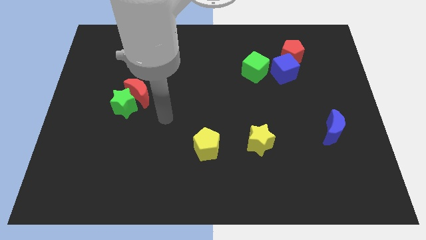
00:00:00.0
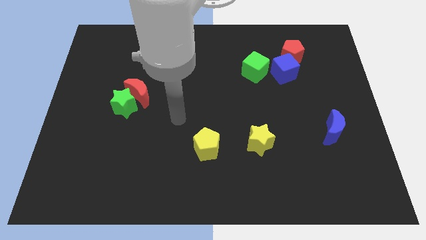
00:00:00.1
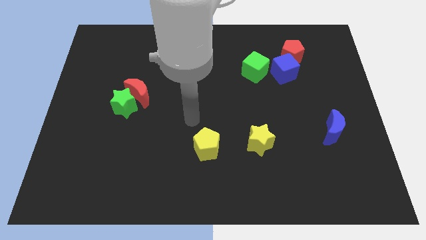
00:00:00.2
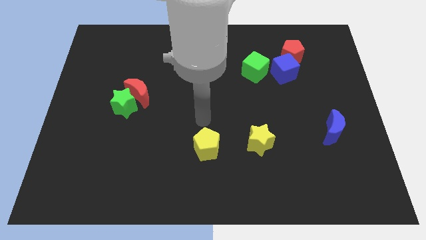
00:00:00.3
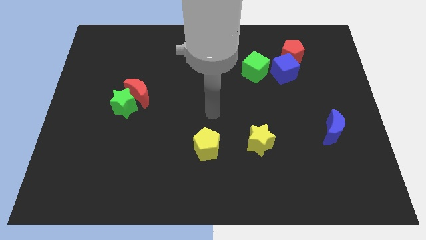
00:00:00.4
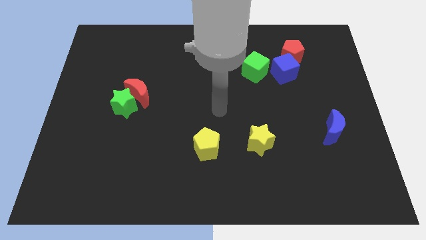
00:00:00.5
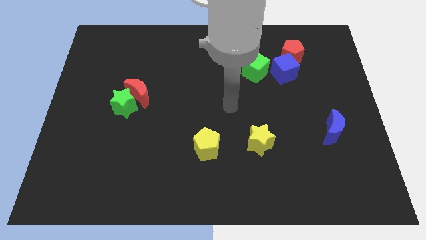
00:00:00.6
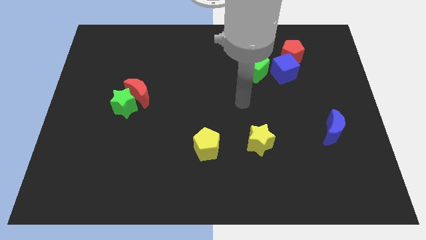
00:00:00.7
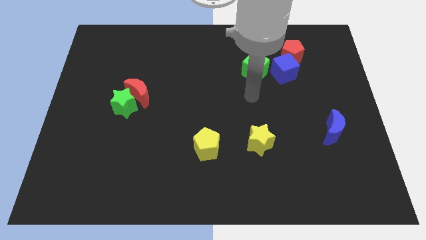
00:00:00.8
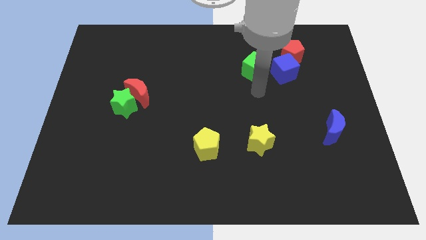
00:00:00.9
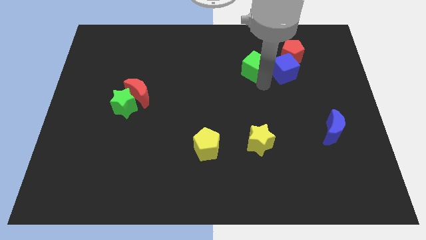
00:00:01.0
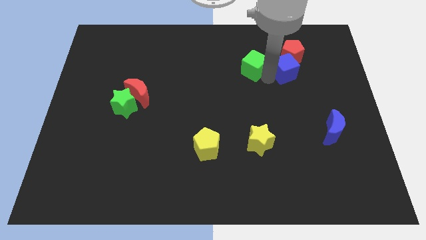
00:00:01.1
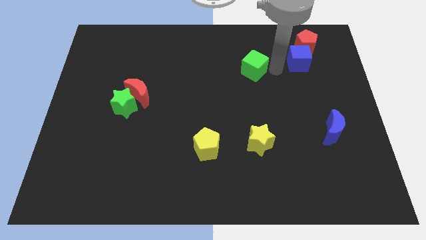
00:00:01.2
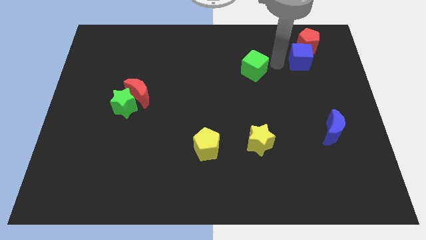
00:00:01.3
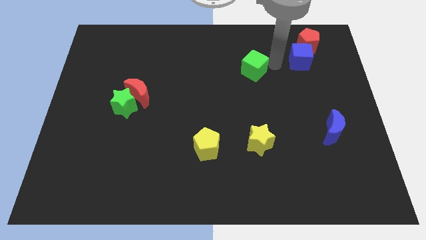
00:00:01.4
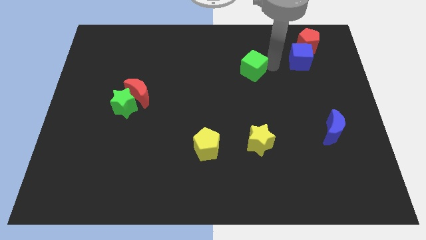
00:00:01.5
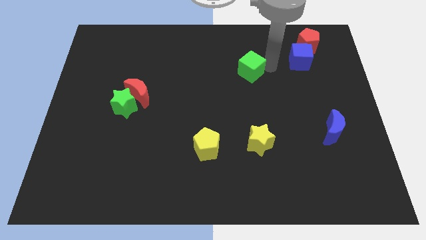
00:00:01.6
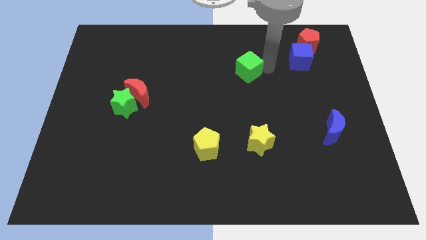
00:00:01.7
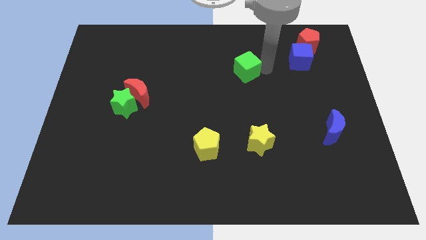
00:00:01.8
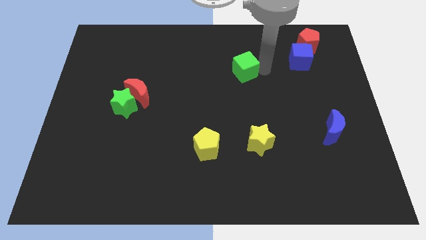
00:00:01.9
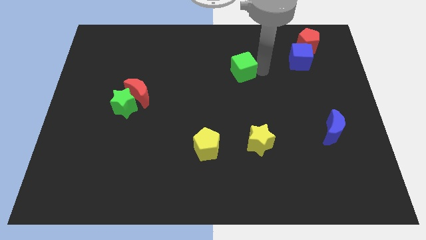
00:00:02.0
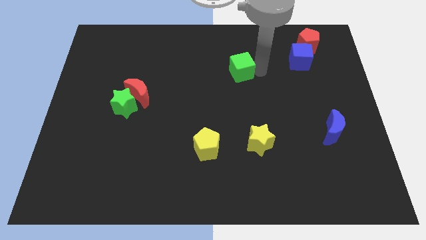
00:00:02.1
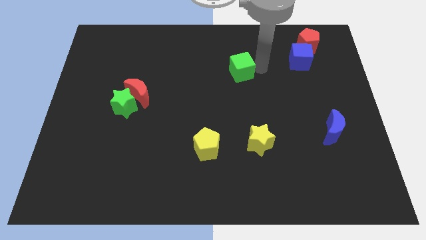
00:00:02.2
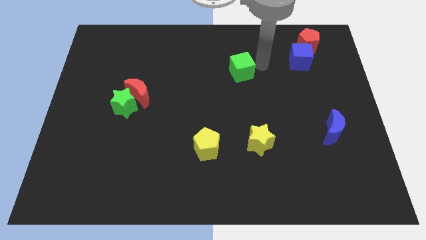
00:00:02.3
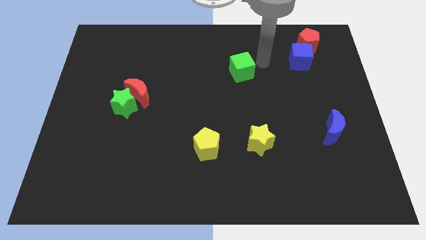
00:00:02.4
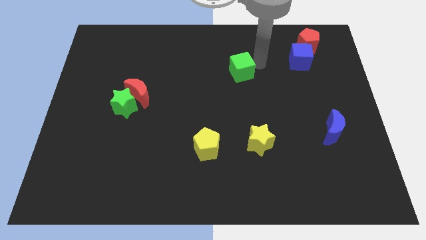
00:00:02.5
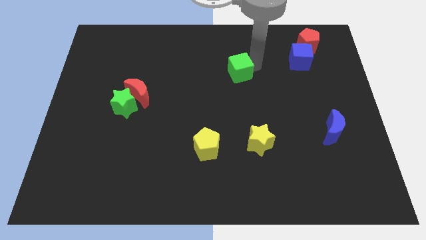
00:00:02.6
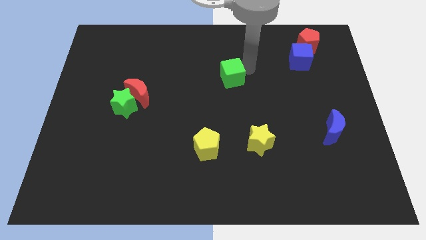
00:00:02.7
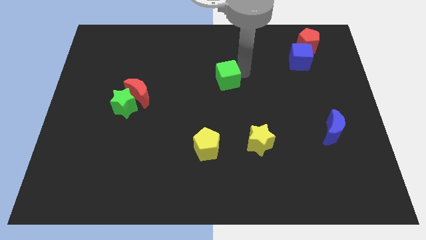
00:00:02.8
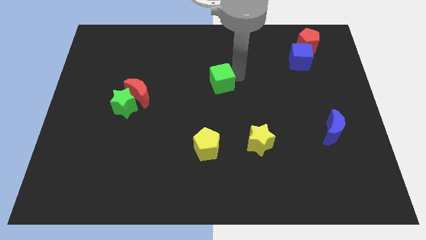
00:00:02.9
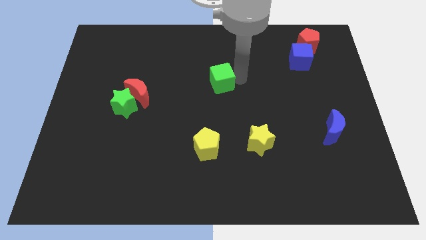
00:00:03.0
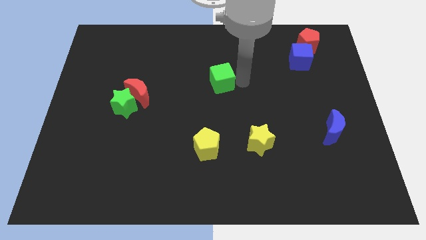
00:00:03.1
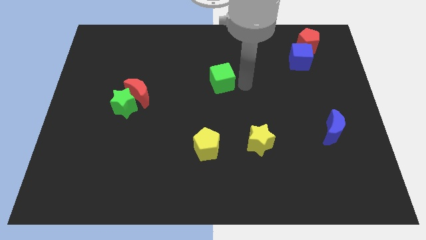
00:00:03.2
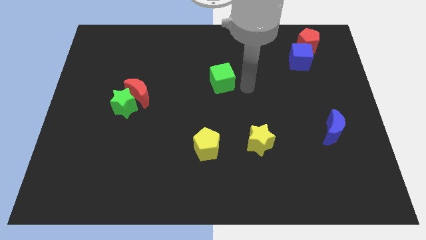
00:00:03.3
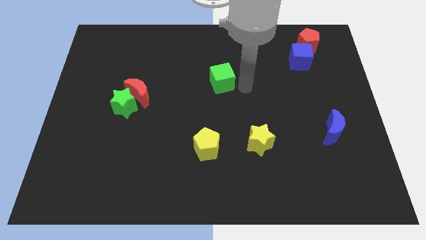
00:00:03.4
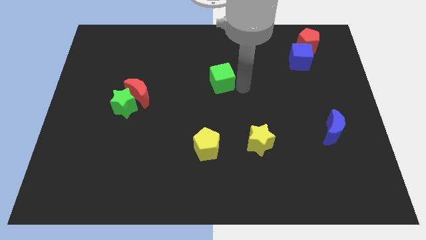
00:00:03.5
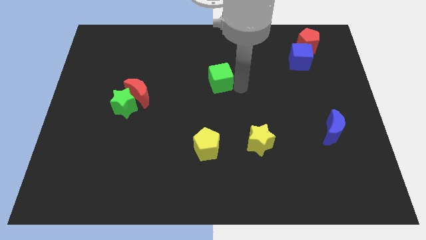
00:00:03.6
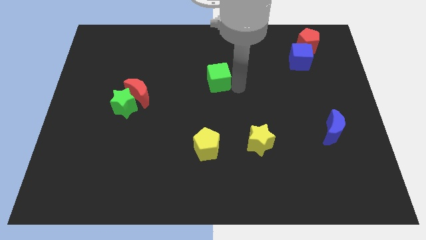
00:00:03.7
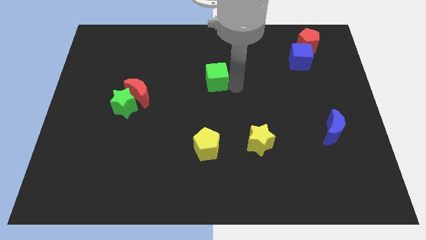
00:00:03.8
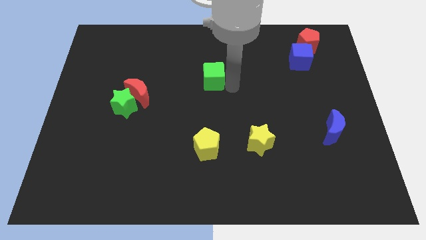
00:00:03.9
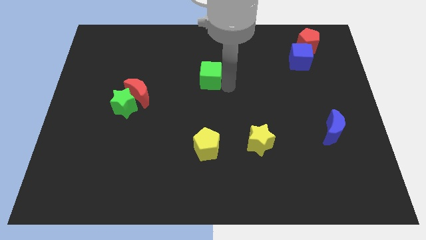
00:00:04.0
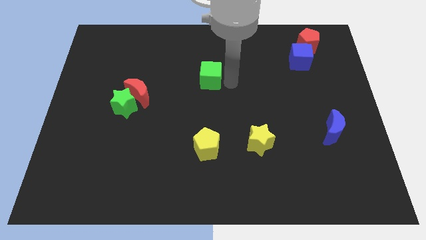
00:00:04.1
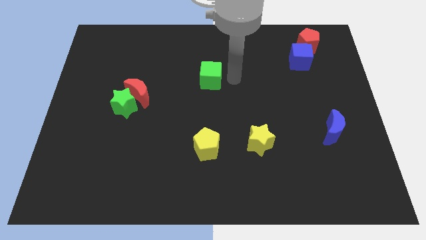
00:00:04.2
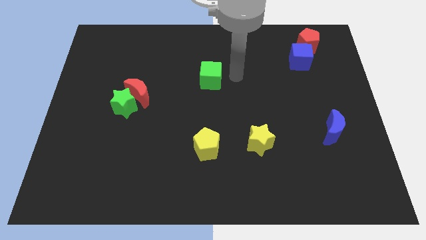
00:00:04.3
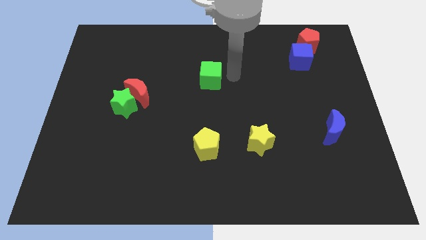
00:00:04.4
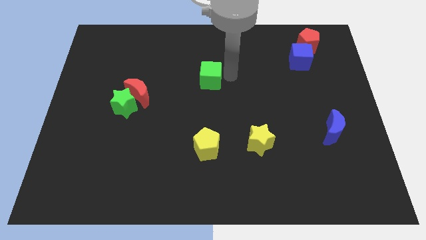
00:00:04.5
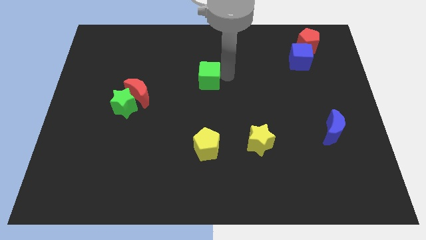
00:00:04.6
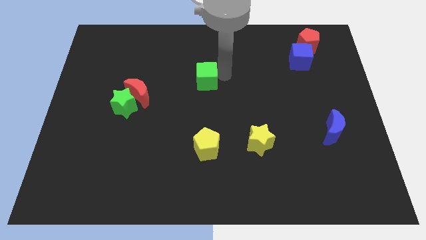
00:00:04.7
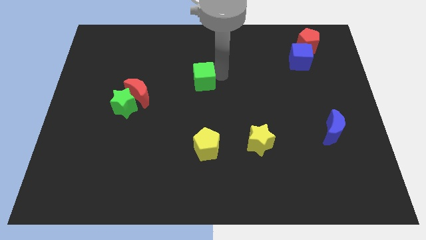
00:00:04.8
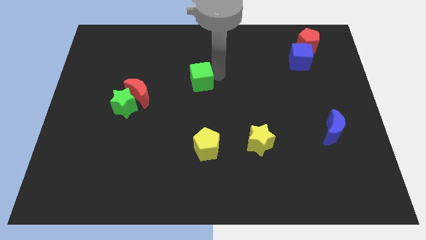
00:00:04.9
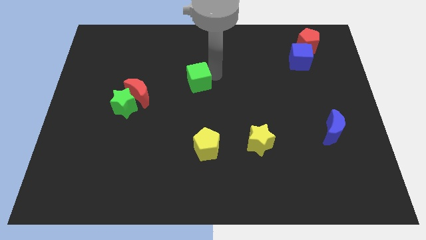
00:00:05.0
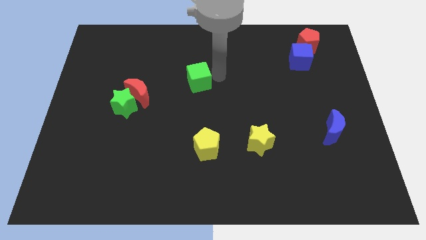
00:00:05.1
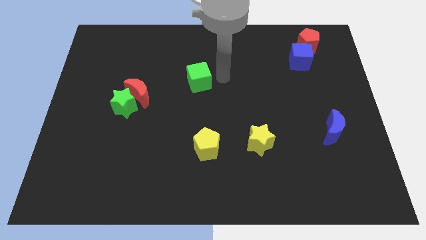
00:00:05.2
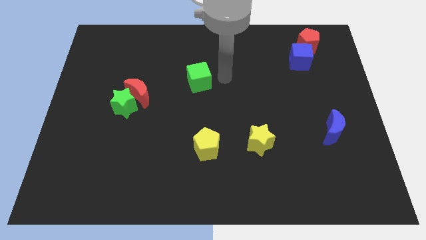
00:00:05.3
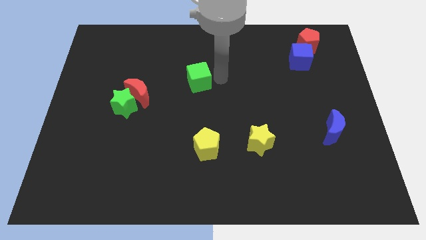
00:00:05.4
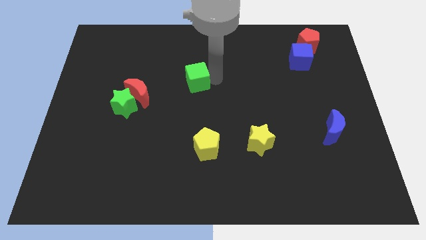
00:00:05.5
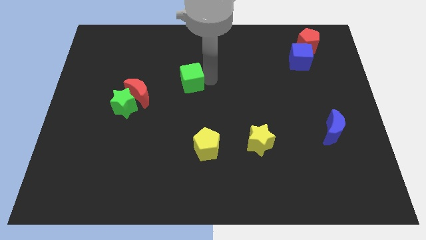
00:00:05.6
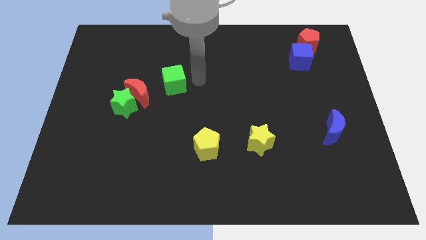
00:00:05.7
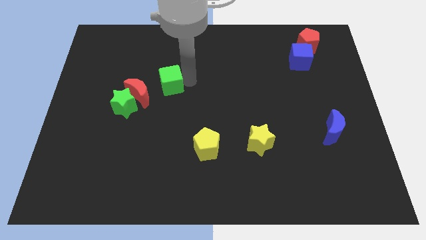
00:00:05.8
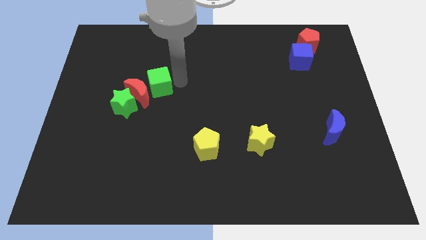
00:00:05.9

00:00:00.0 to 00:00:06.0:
push the green cube next to the red moon

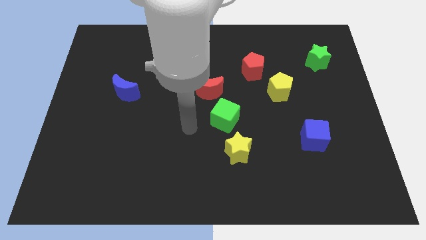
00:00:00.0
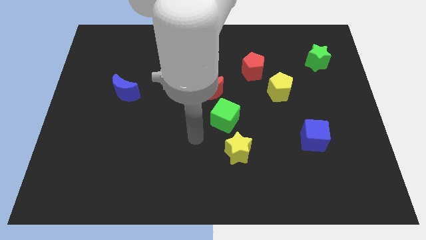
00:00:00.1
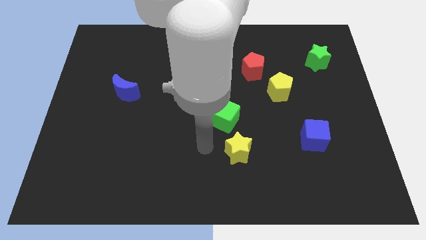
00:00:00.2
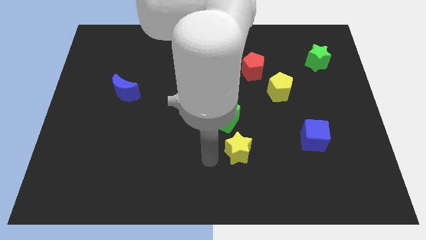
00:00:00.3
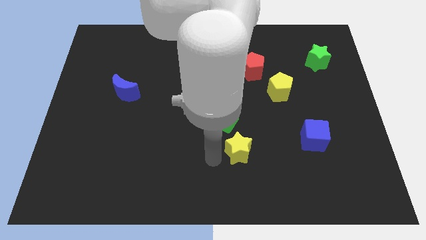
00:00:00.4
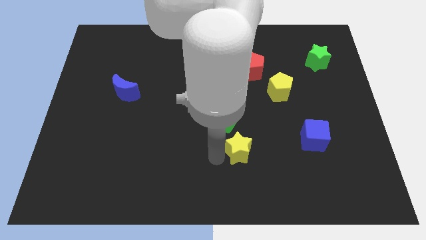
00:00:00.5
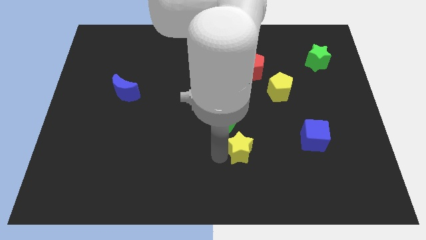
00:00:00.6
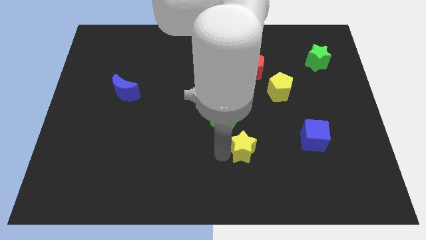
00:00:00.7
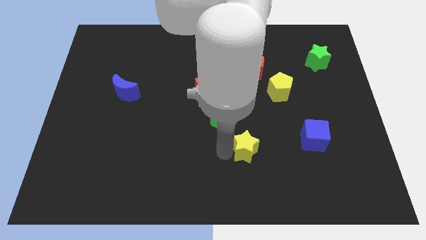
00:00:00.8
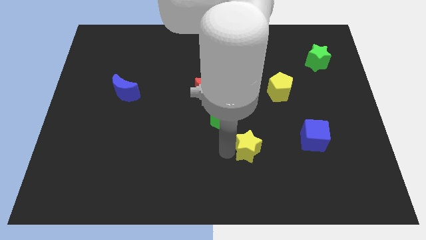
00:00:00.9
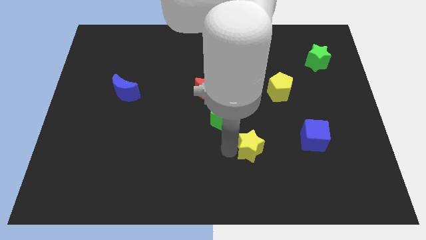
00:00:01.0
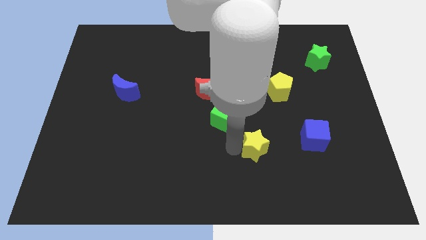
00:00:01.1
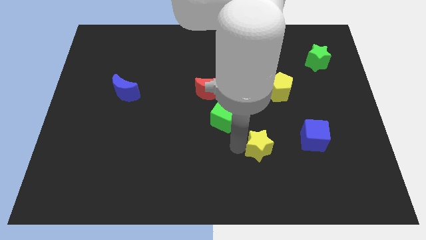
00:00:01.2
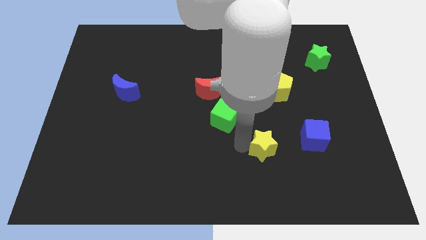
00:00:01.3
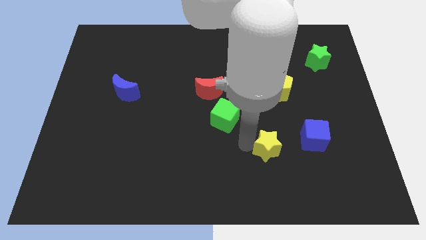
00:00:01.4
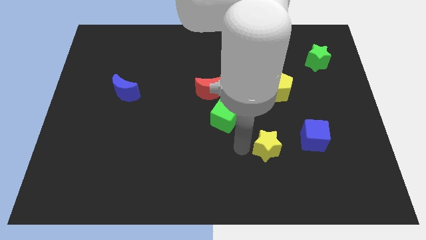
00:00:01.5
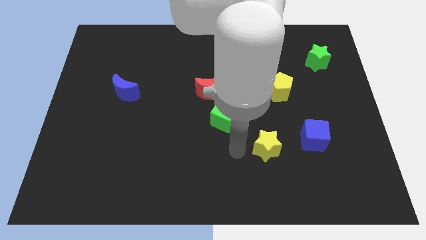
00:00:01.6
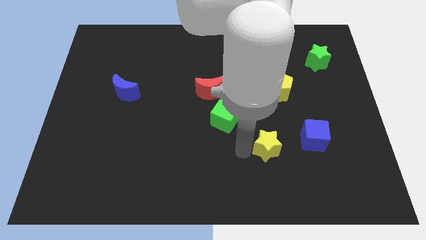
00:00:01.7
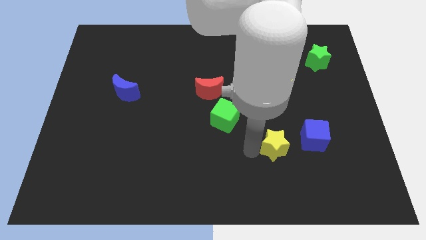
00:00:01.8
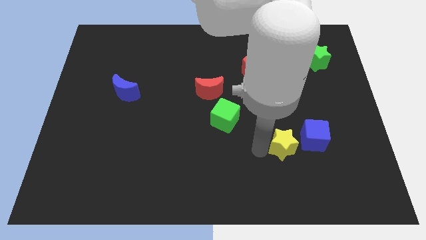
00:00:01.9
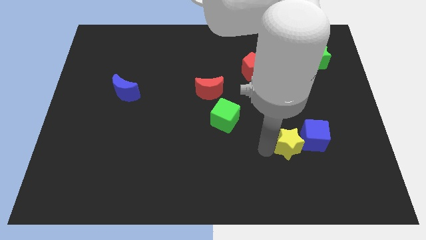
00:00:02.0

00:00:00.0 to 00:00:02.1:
push the yellow star close to the blue cube
